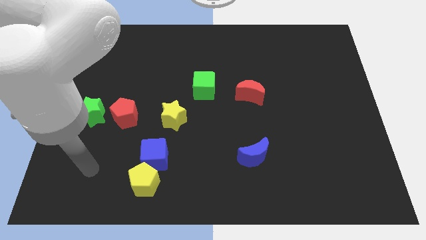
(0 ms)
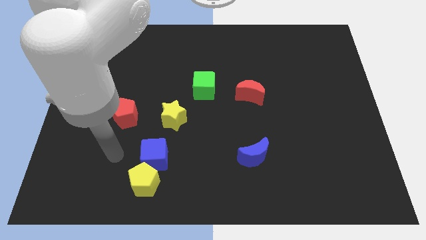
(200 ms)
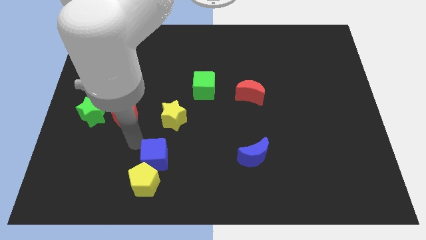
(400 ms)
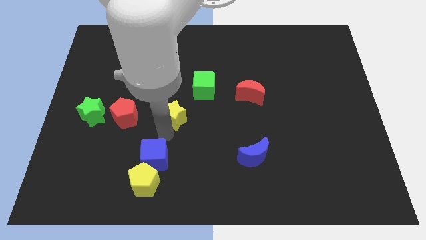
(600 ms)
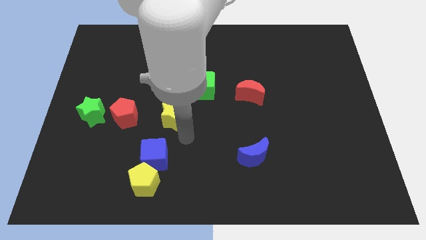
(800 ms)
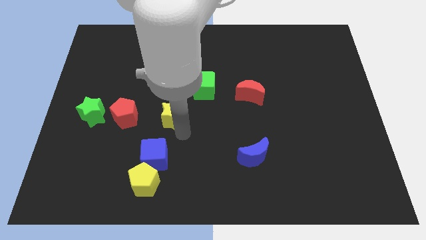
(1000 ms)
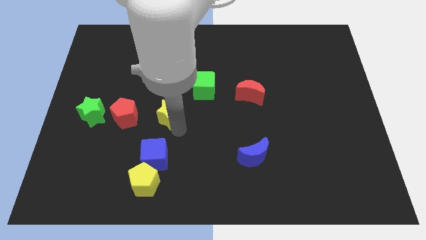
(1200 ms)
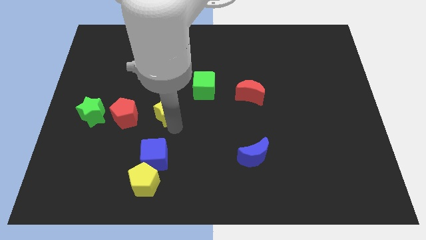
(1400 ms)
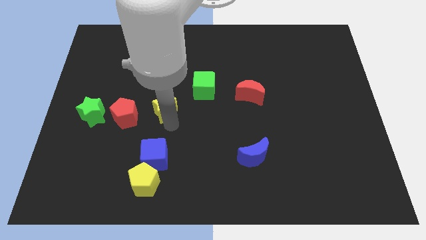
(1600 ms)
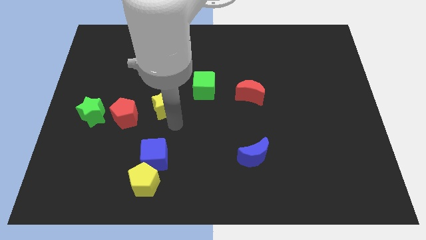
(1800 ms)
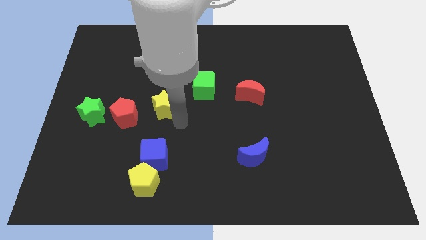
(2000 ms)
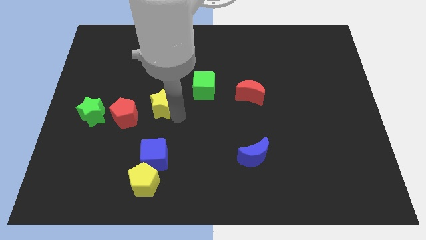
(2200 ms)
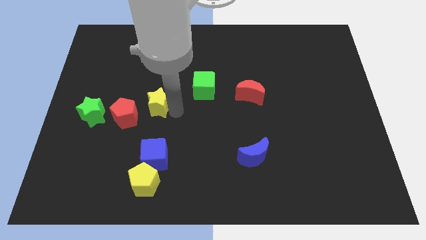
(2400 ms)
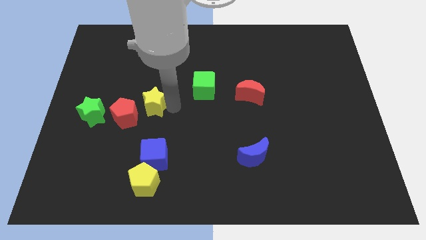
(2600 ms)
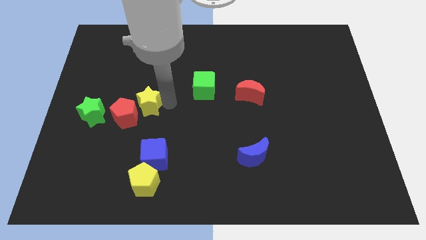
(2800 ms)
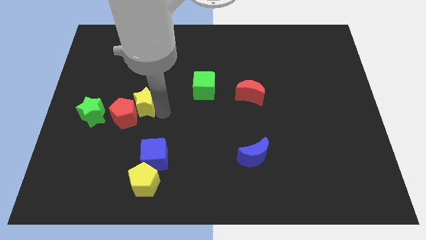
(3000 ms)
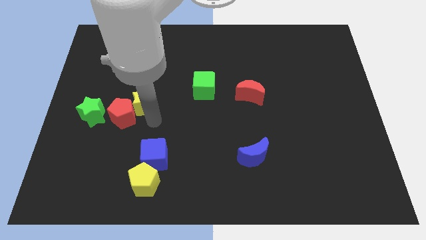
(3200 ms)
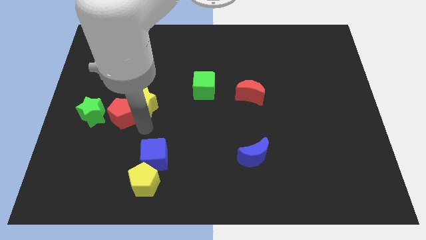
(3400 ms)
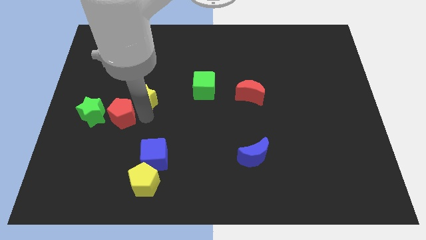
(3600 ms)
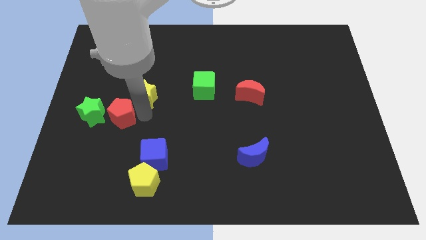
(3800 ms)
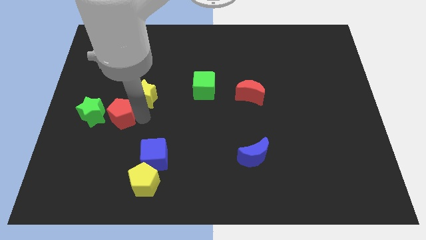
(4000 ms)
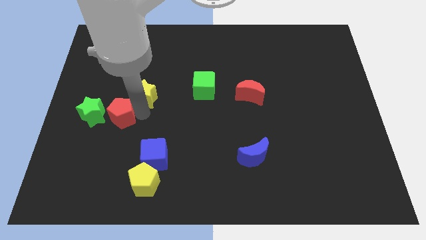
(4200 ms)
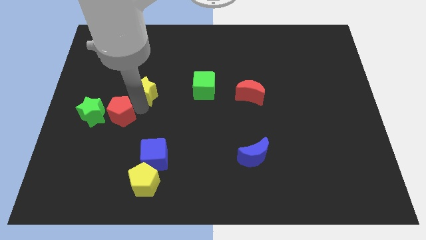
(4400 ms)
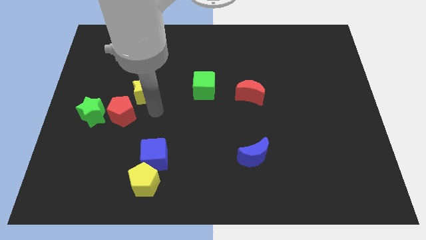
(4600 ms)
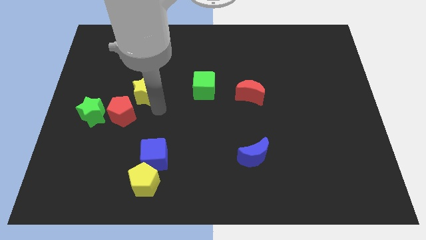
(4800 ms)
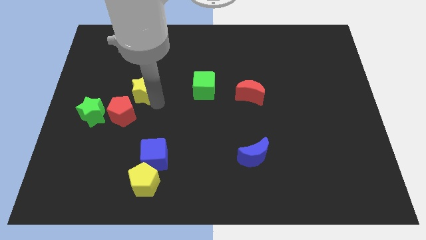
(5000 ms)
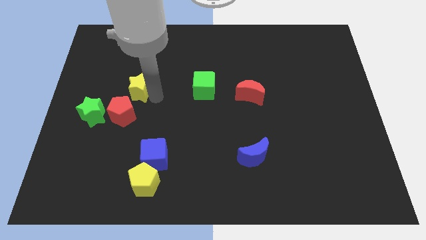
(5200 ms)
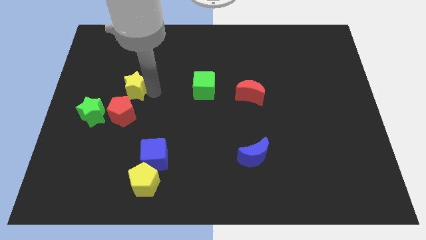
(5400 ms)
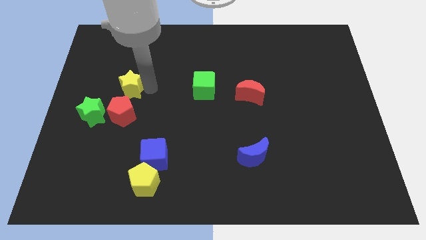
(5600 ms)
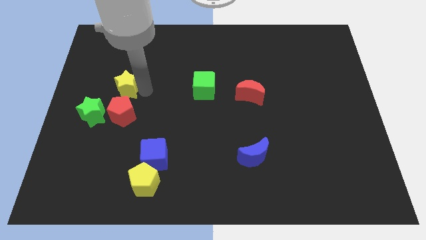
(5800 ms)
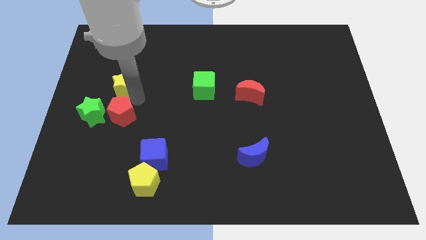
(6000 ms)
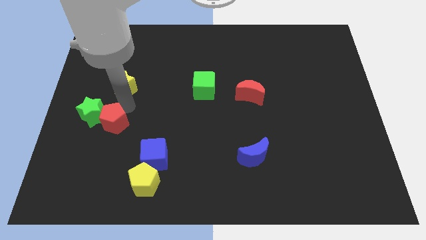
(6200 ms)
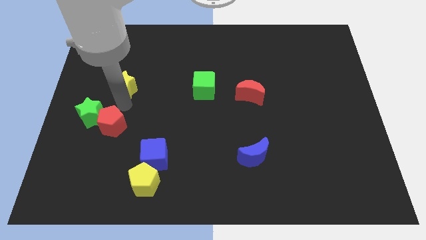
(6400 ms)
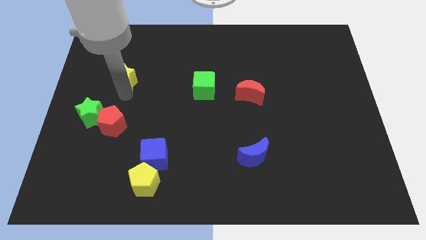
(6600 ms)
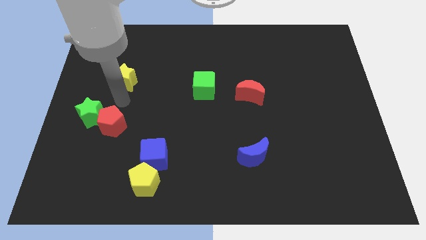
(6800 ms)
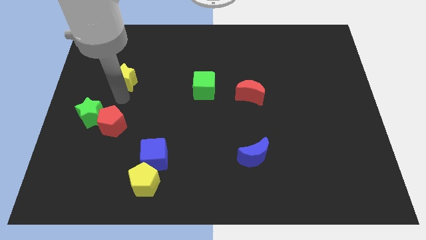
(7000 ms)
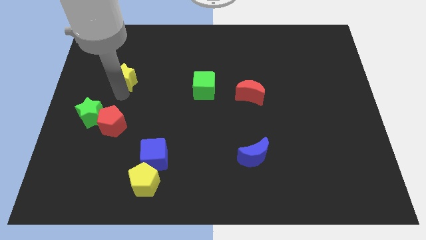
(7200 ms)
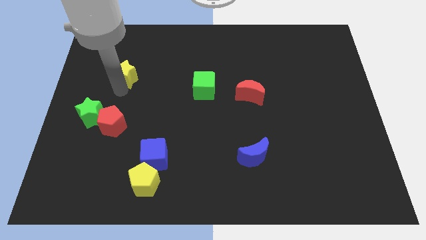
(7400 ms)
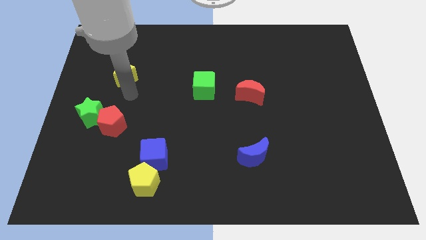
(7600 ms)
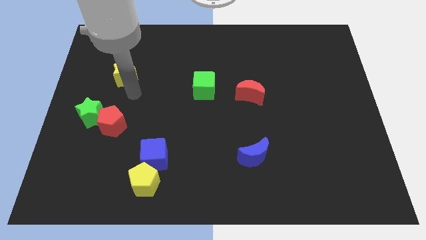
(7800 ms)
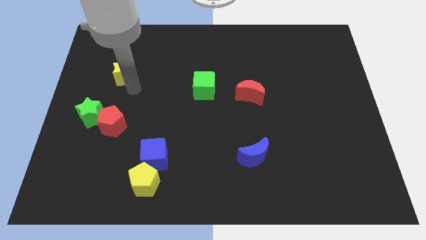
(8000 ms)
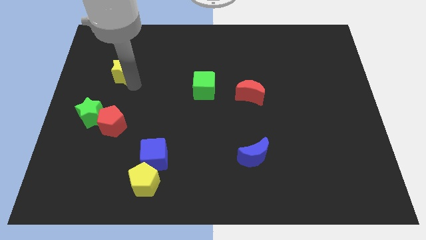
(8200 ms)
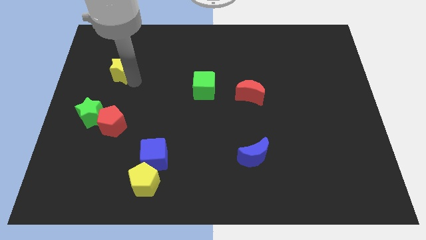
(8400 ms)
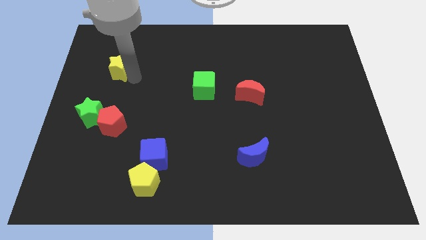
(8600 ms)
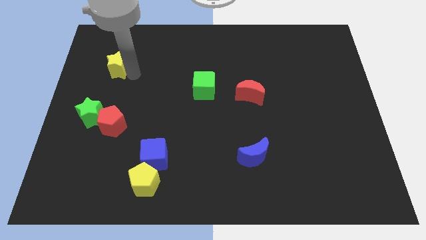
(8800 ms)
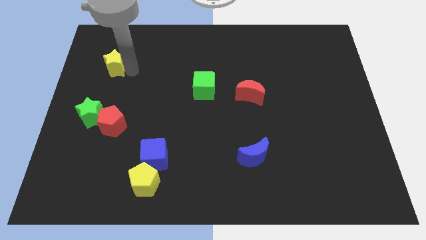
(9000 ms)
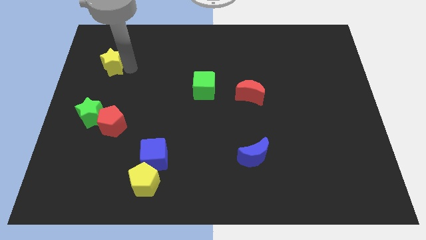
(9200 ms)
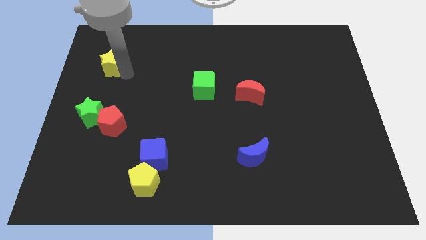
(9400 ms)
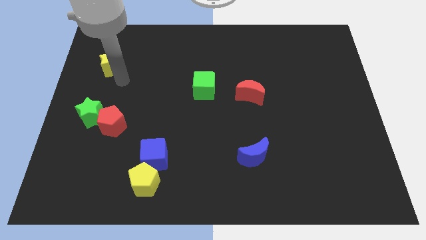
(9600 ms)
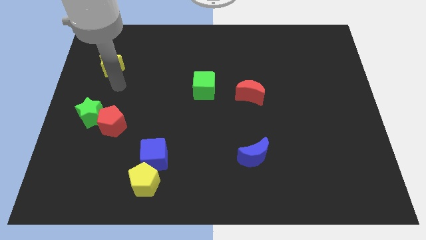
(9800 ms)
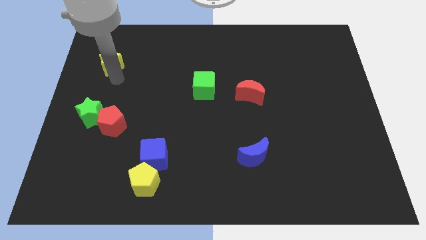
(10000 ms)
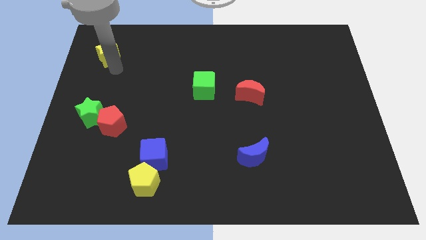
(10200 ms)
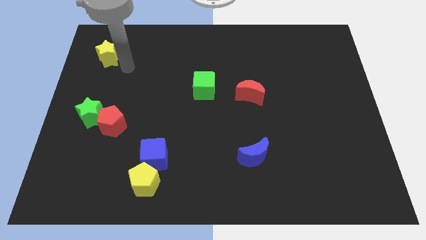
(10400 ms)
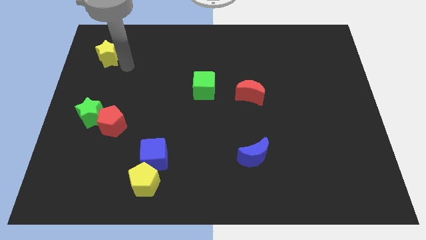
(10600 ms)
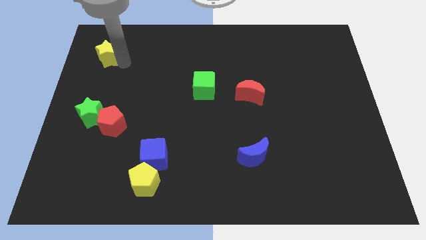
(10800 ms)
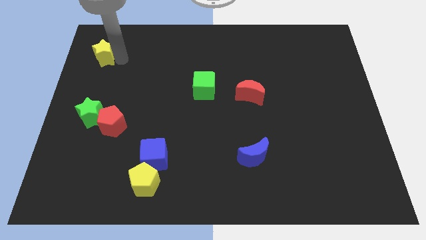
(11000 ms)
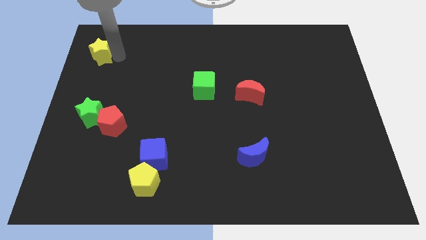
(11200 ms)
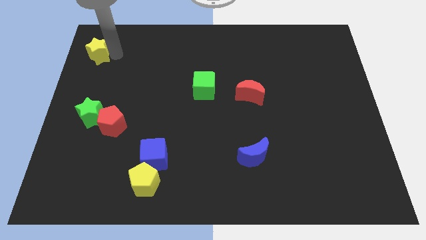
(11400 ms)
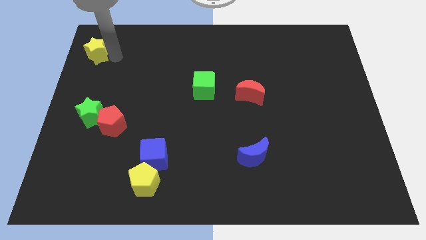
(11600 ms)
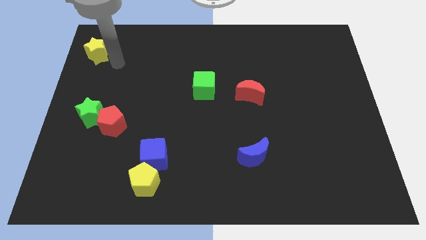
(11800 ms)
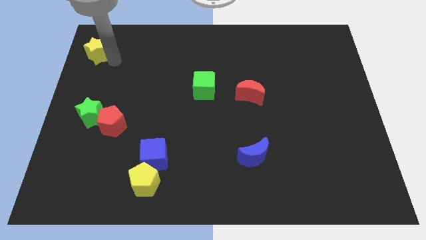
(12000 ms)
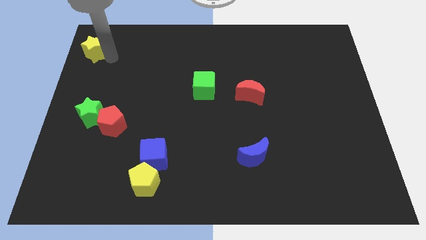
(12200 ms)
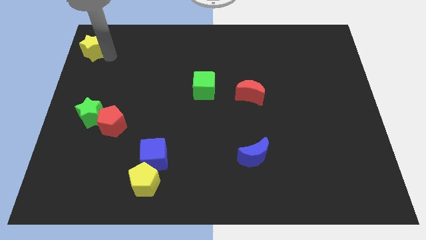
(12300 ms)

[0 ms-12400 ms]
put the yellow star to the top left corner

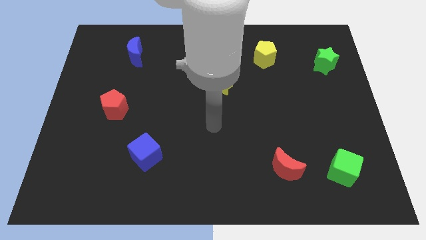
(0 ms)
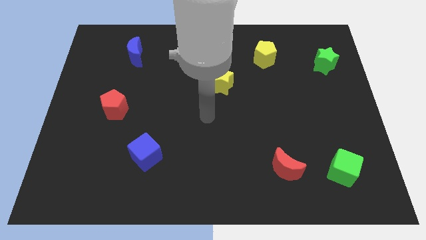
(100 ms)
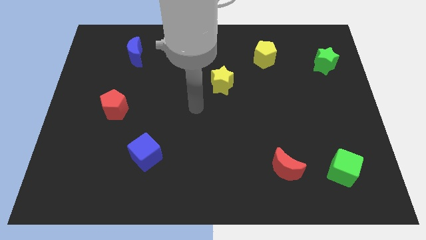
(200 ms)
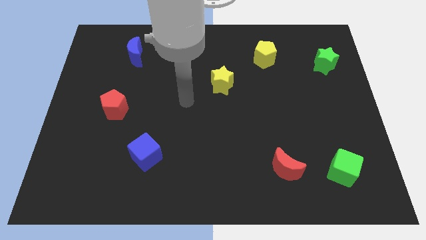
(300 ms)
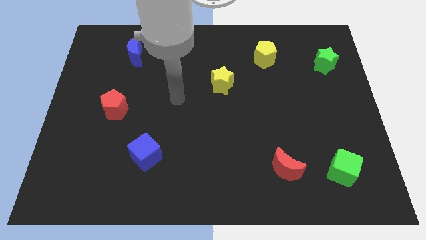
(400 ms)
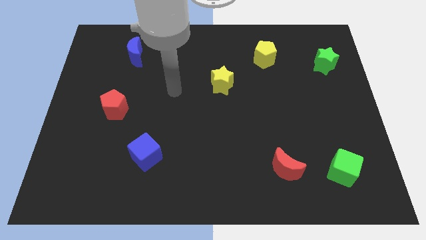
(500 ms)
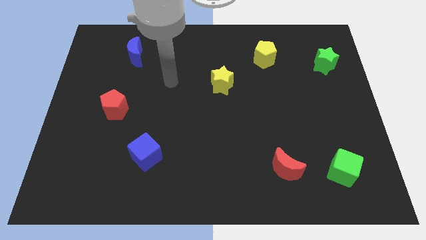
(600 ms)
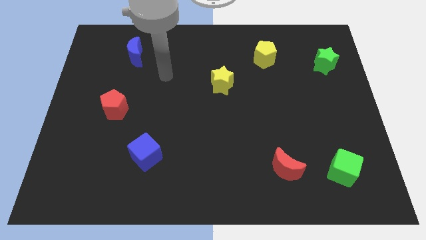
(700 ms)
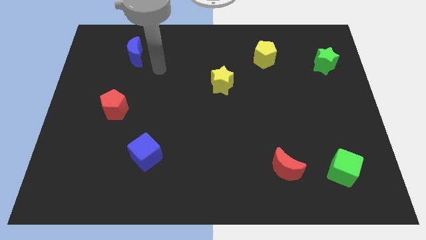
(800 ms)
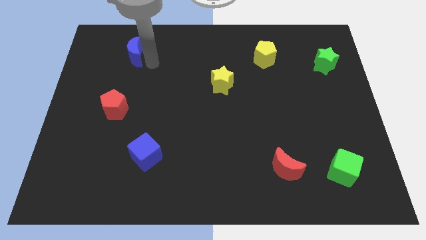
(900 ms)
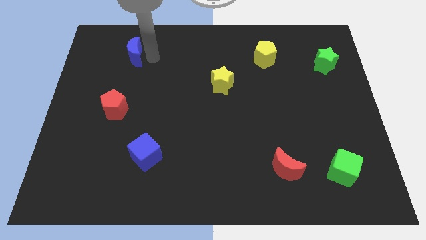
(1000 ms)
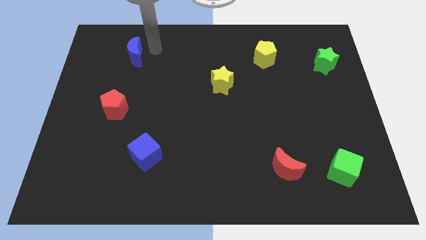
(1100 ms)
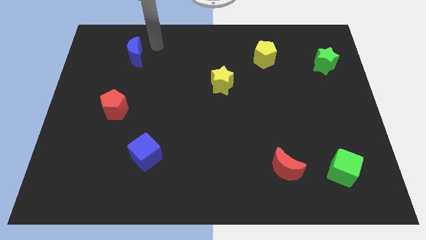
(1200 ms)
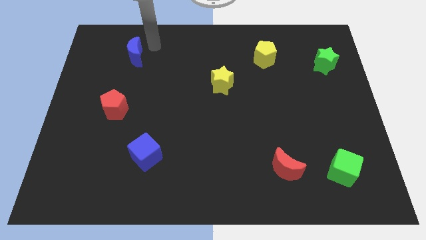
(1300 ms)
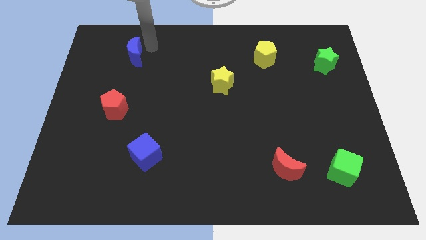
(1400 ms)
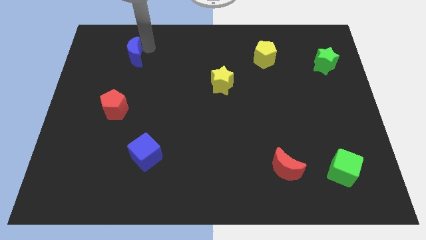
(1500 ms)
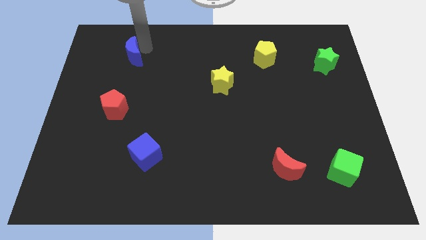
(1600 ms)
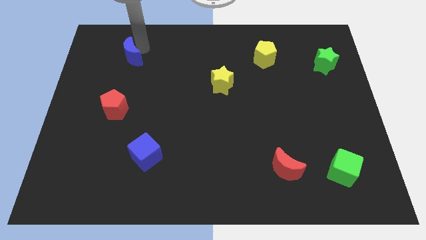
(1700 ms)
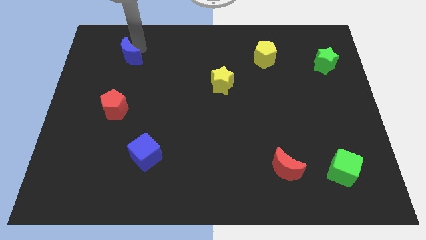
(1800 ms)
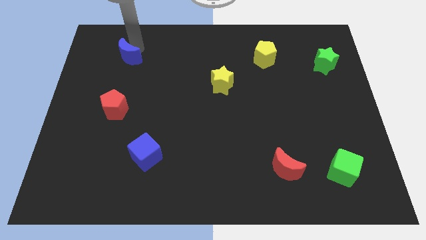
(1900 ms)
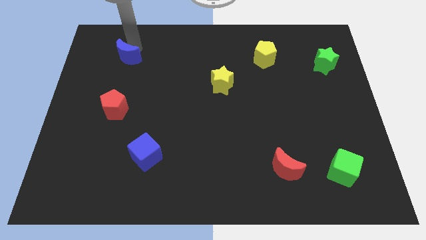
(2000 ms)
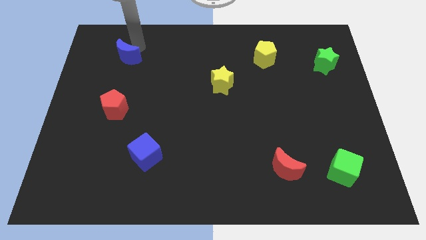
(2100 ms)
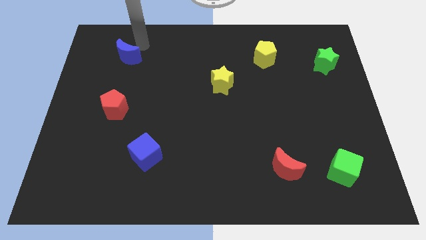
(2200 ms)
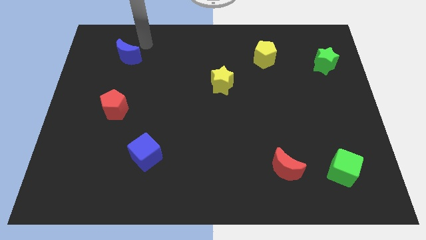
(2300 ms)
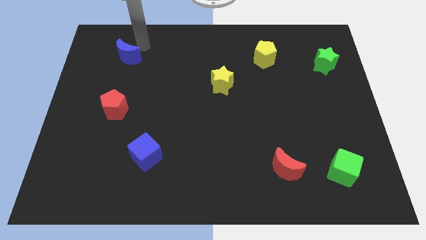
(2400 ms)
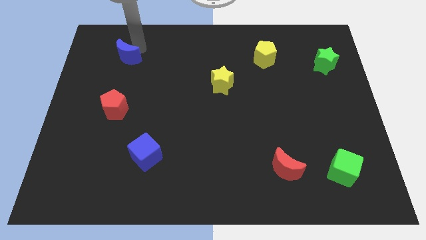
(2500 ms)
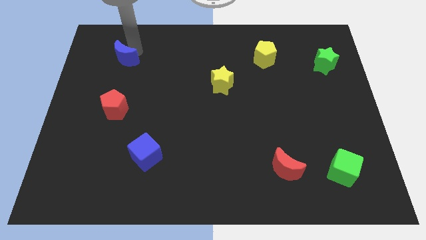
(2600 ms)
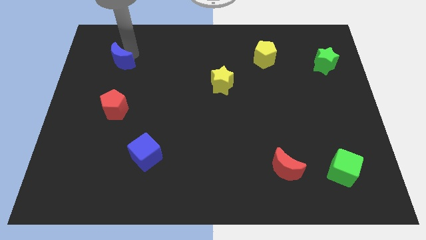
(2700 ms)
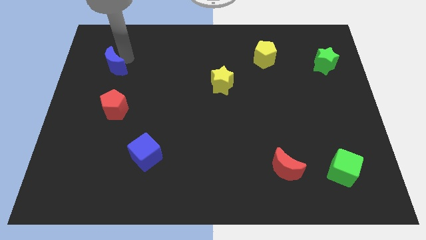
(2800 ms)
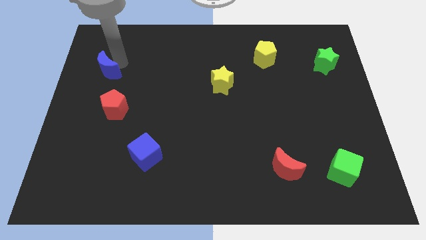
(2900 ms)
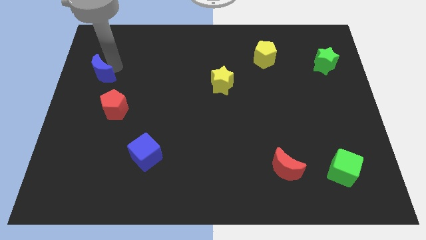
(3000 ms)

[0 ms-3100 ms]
slide the blue moon to the left side of the board
